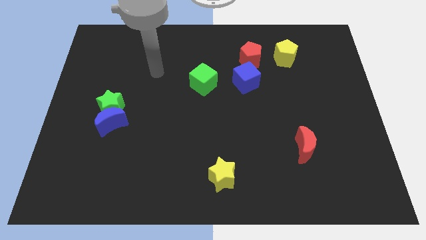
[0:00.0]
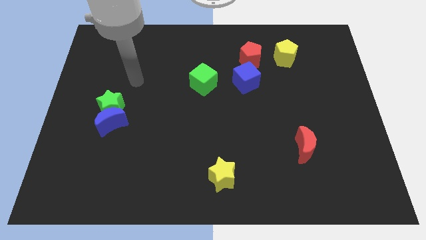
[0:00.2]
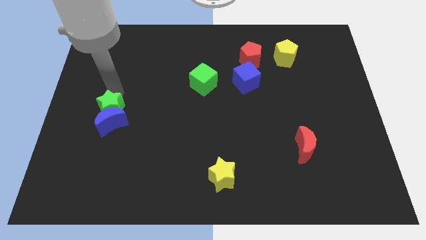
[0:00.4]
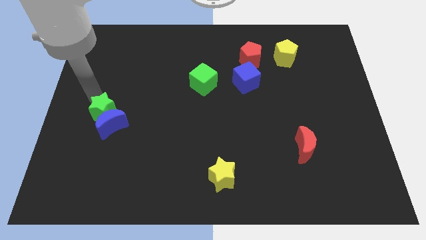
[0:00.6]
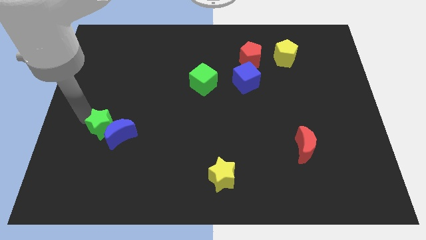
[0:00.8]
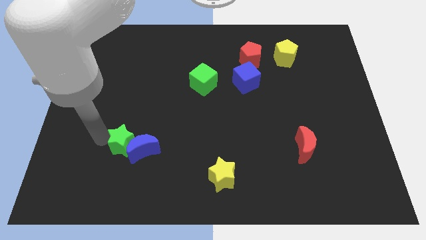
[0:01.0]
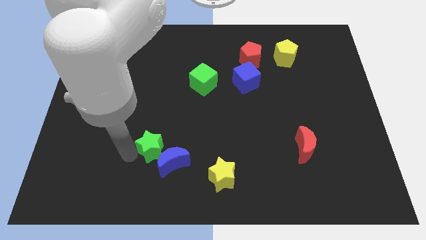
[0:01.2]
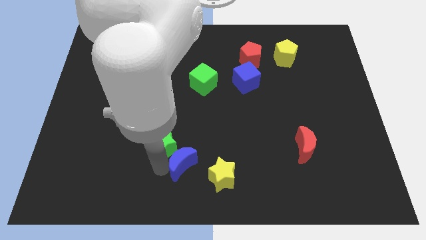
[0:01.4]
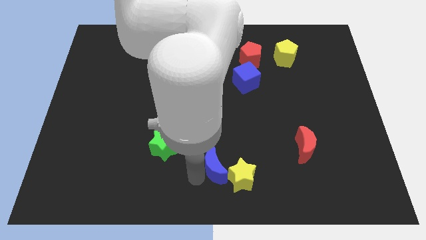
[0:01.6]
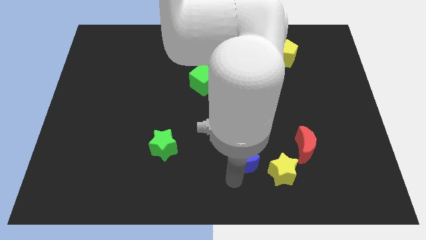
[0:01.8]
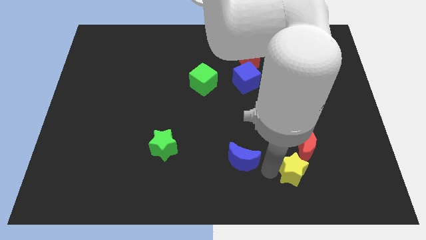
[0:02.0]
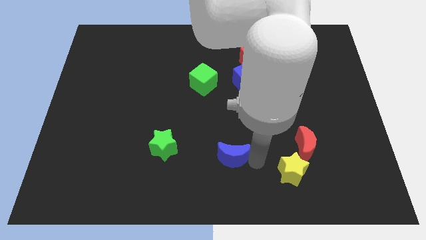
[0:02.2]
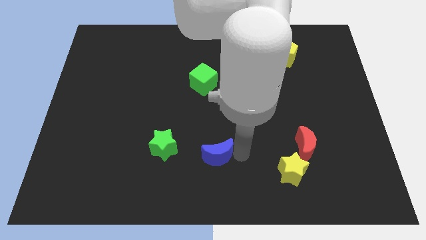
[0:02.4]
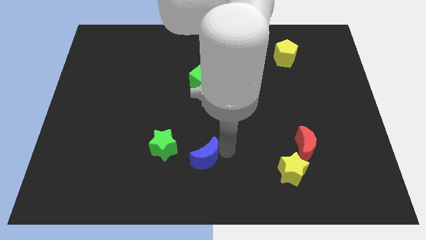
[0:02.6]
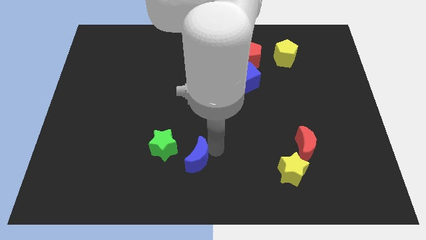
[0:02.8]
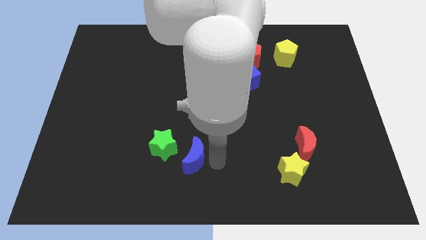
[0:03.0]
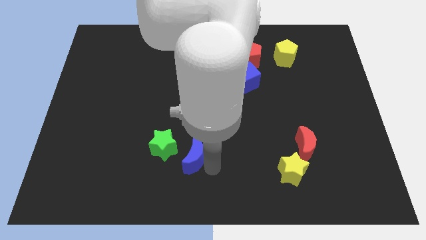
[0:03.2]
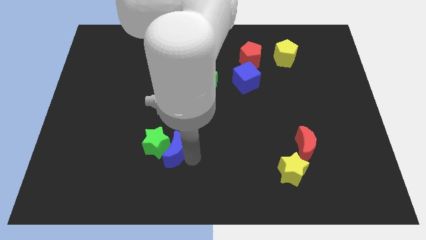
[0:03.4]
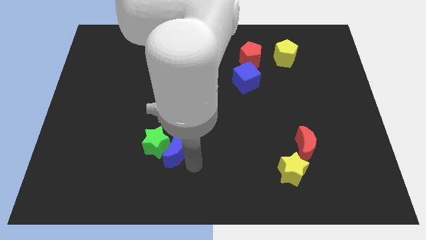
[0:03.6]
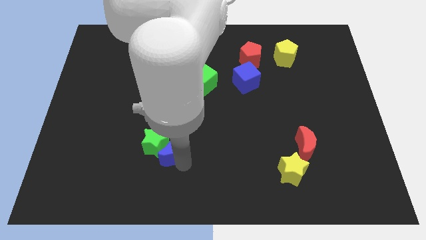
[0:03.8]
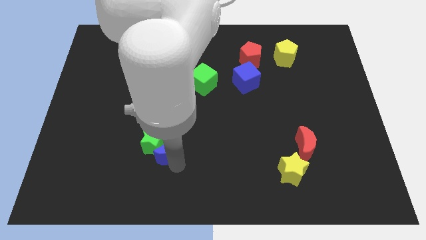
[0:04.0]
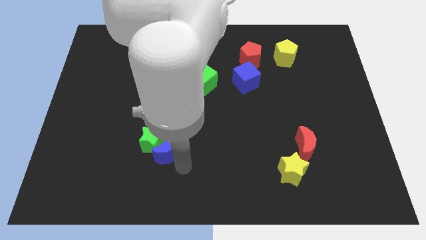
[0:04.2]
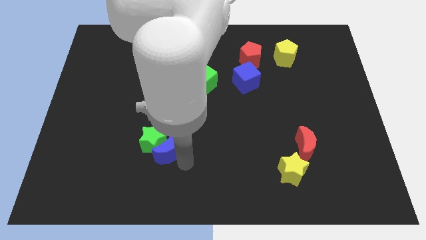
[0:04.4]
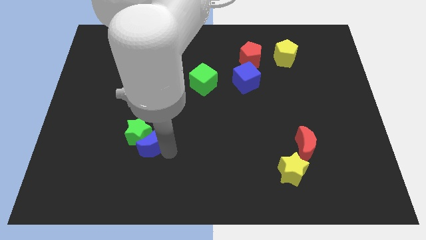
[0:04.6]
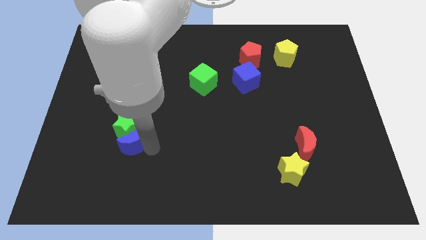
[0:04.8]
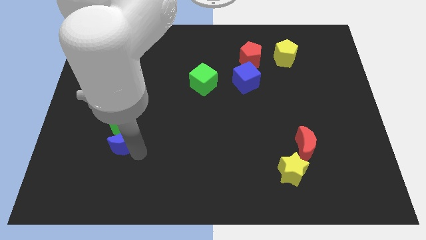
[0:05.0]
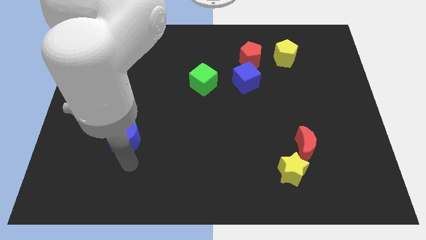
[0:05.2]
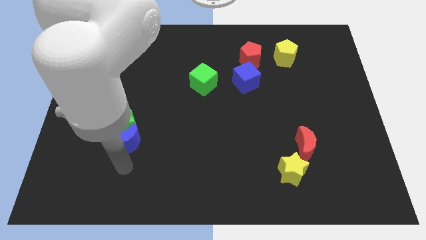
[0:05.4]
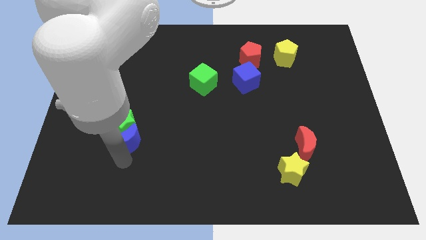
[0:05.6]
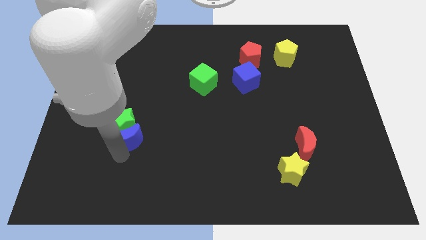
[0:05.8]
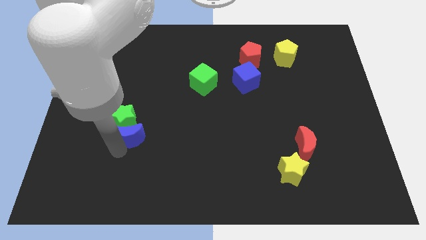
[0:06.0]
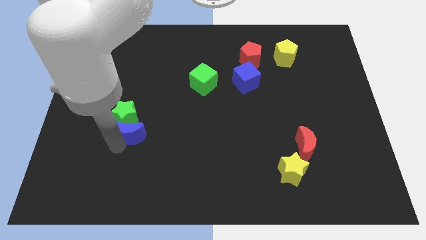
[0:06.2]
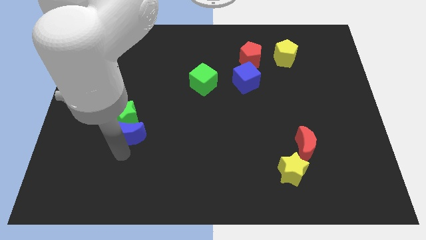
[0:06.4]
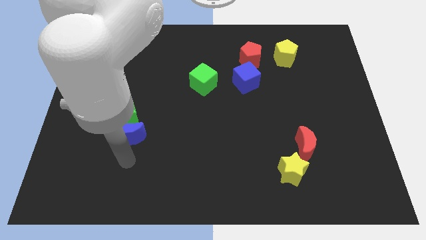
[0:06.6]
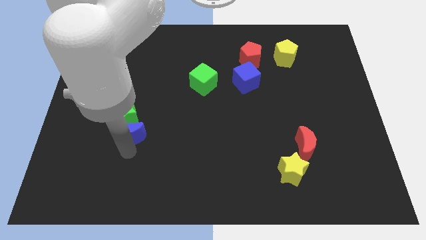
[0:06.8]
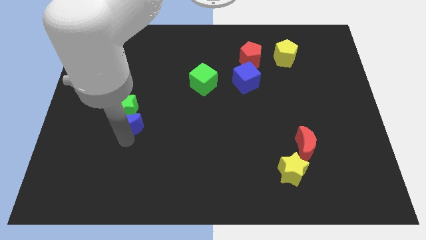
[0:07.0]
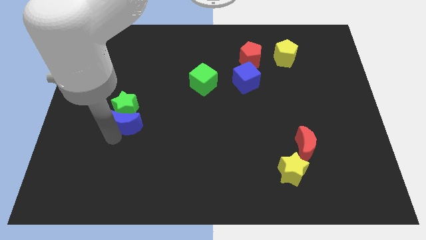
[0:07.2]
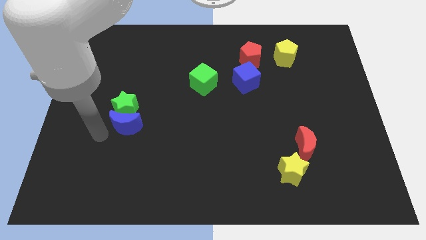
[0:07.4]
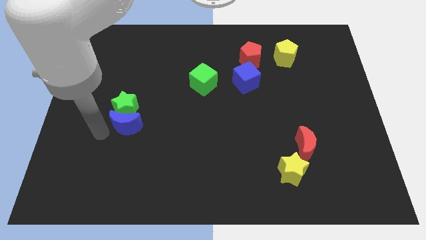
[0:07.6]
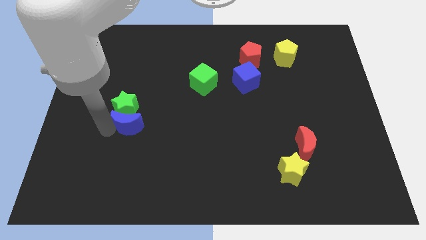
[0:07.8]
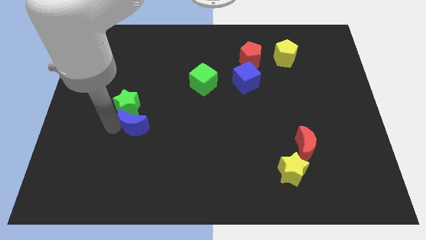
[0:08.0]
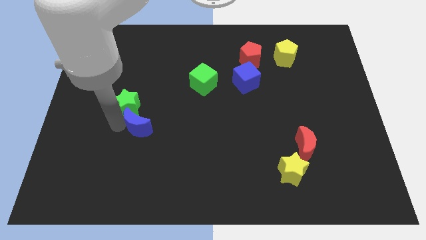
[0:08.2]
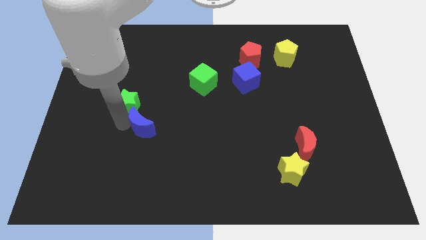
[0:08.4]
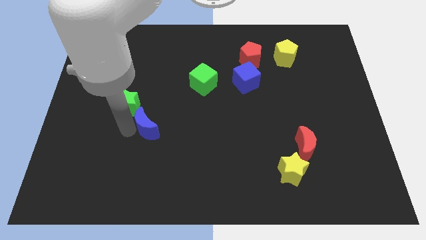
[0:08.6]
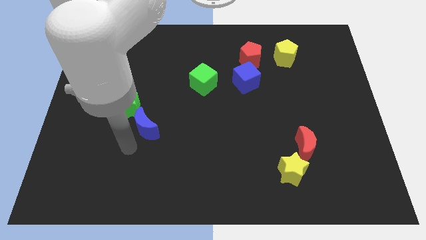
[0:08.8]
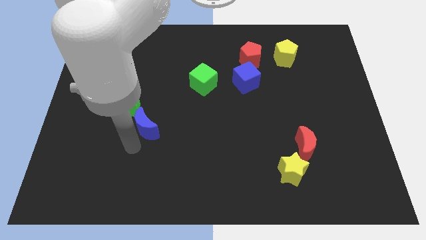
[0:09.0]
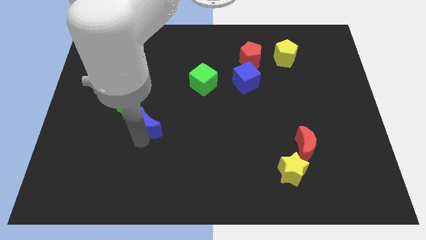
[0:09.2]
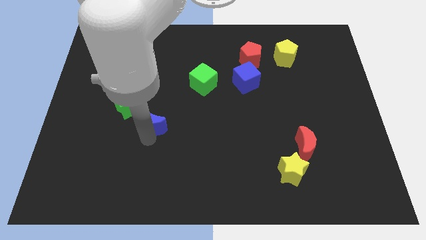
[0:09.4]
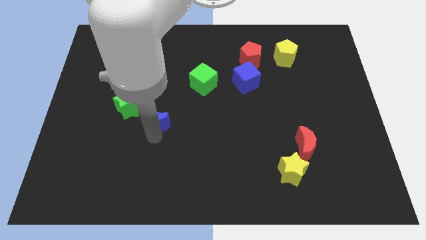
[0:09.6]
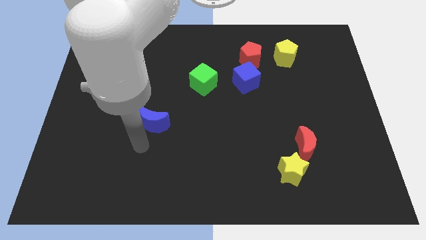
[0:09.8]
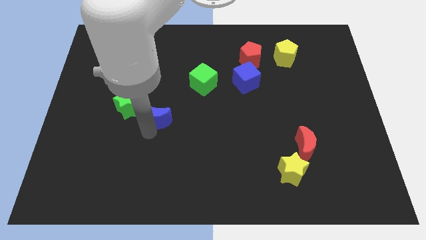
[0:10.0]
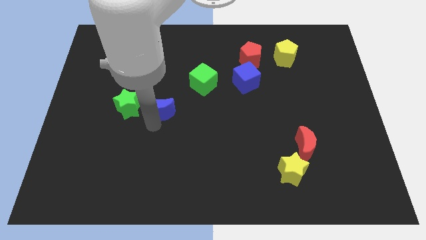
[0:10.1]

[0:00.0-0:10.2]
move the blue moon diagonally up and to the right a bit

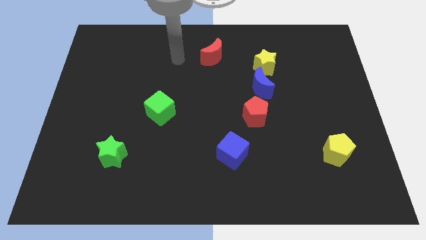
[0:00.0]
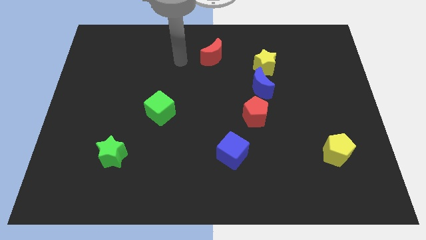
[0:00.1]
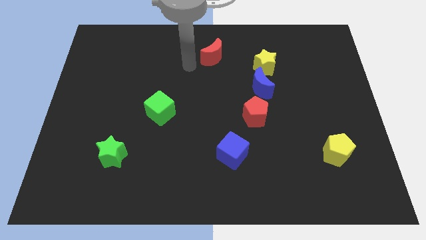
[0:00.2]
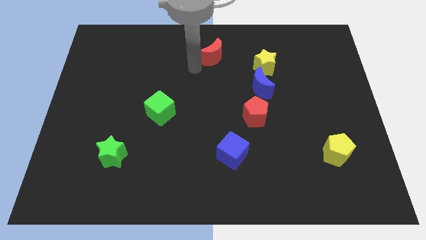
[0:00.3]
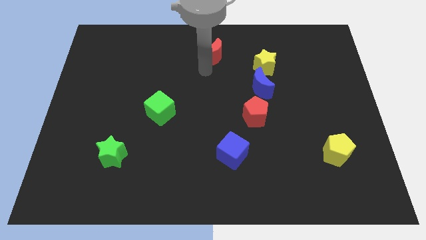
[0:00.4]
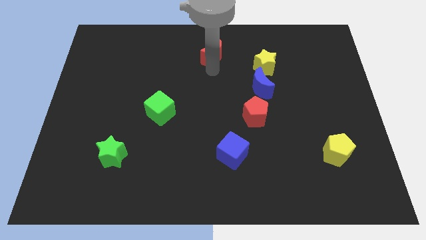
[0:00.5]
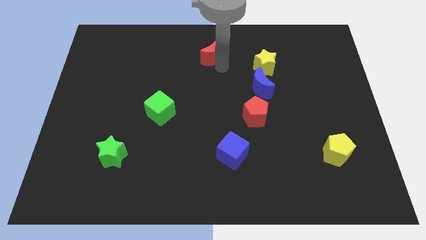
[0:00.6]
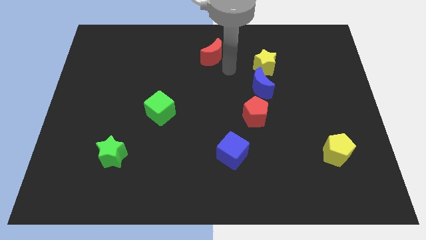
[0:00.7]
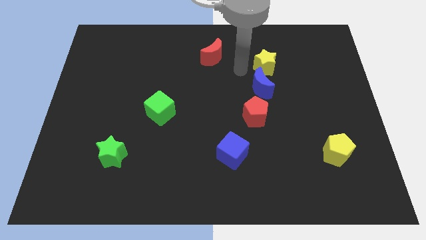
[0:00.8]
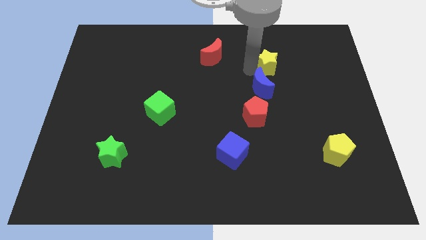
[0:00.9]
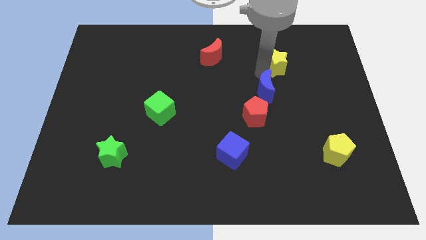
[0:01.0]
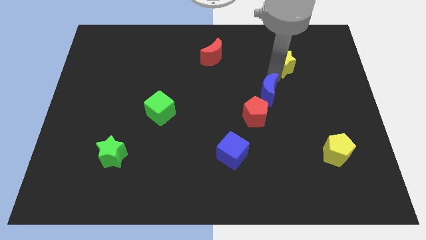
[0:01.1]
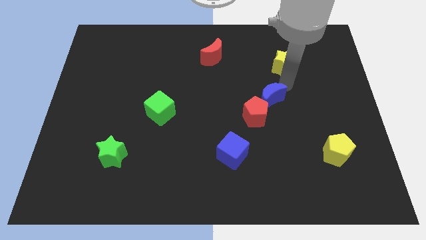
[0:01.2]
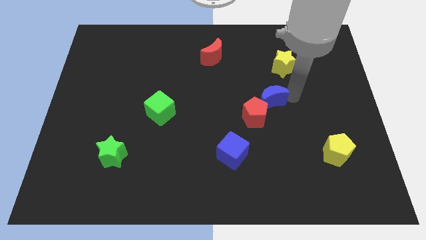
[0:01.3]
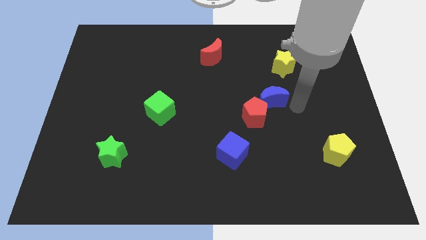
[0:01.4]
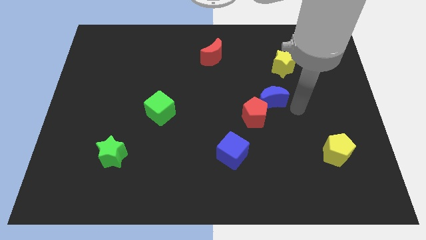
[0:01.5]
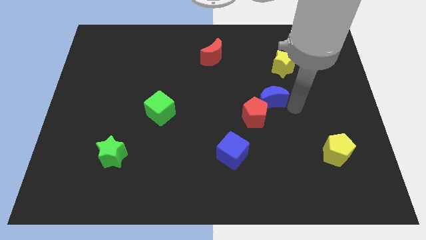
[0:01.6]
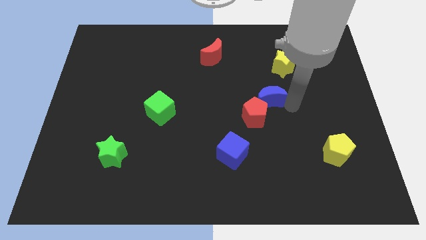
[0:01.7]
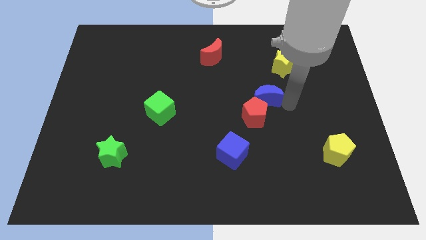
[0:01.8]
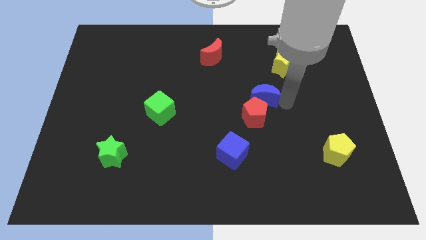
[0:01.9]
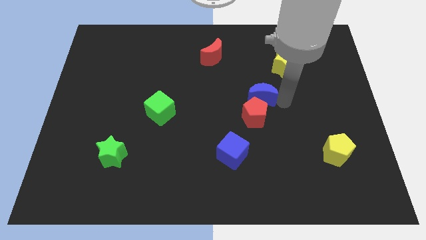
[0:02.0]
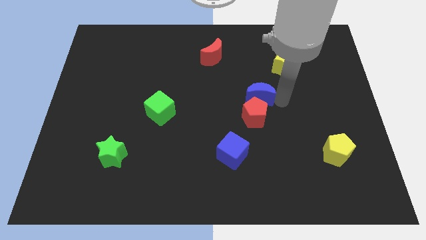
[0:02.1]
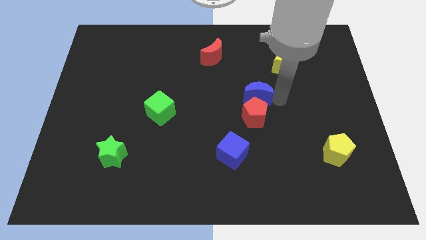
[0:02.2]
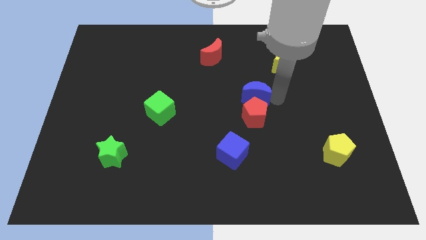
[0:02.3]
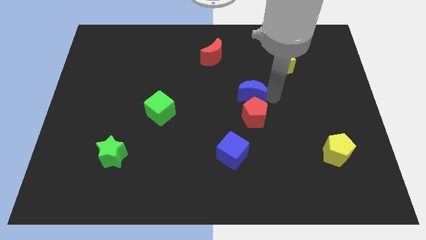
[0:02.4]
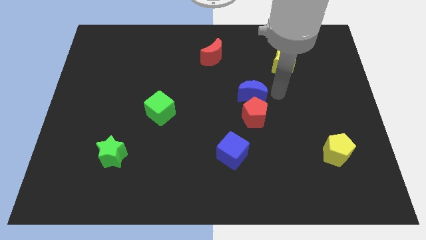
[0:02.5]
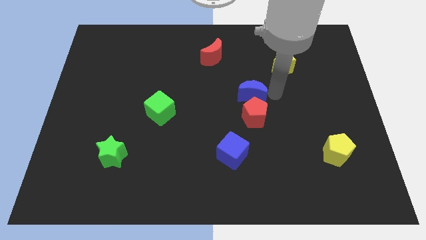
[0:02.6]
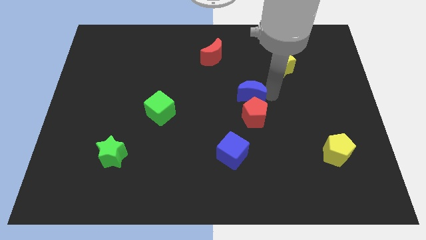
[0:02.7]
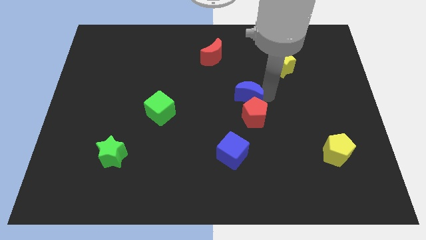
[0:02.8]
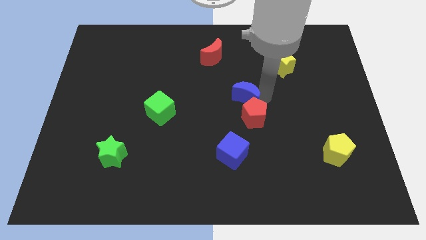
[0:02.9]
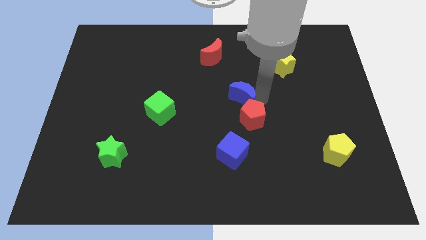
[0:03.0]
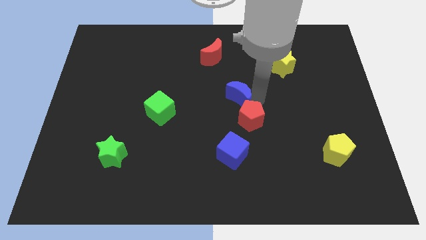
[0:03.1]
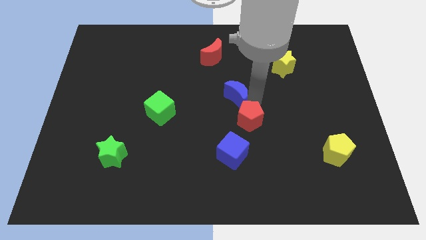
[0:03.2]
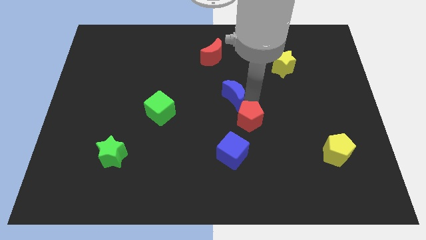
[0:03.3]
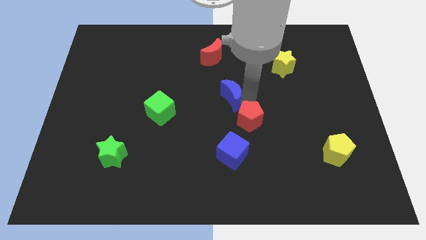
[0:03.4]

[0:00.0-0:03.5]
push the blue moon somewhat to the left
